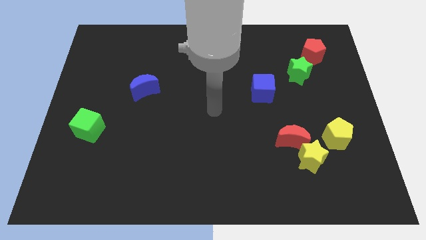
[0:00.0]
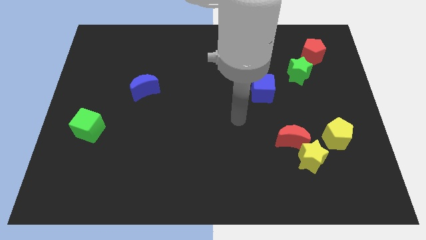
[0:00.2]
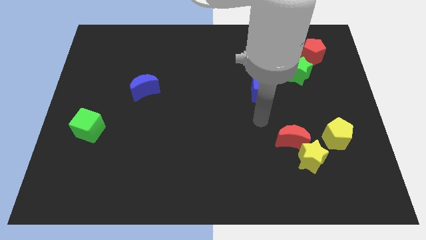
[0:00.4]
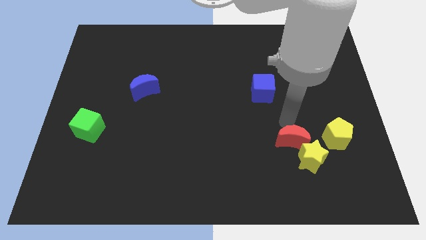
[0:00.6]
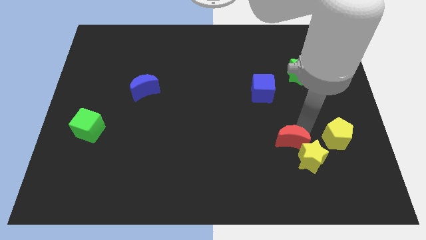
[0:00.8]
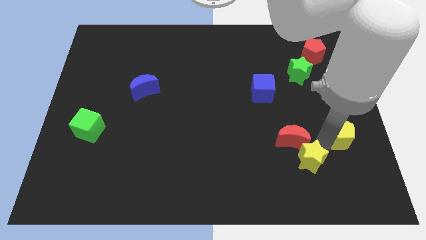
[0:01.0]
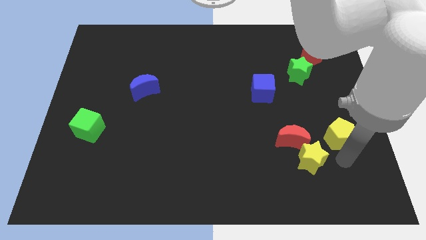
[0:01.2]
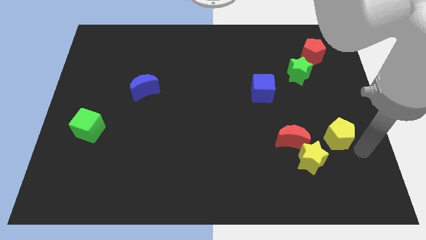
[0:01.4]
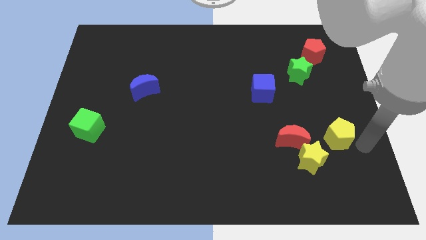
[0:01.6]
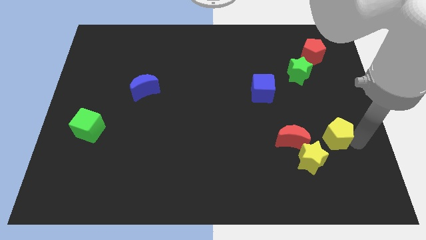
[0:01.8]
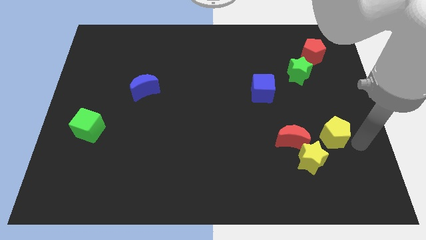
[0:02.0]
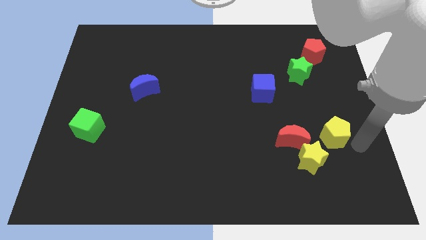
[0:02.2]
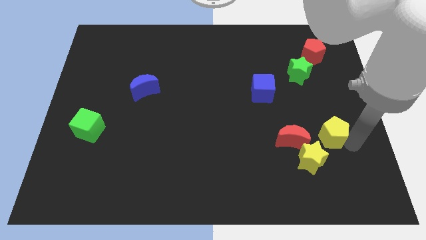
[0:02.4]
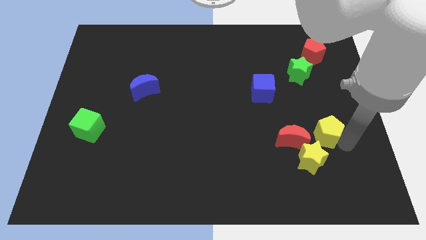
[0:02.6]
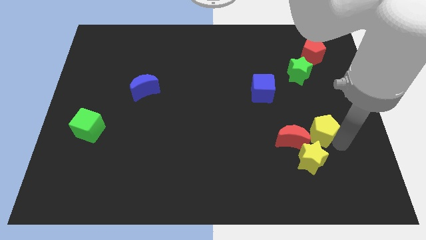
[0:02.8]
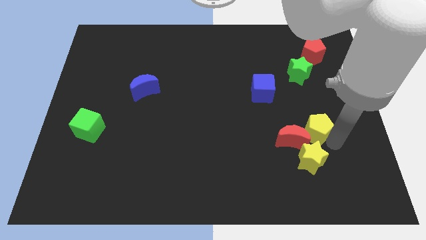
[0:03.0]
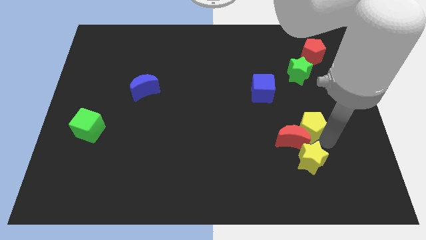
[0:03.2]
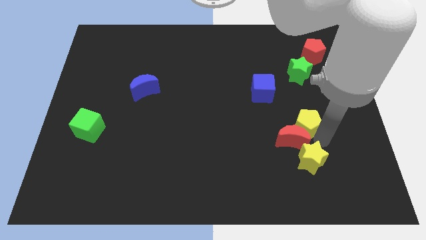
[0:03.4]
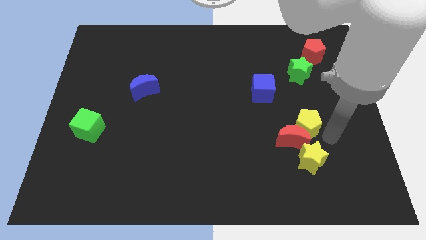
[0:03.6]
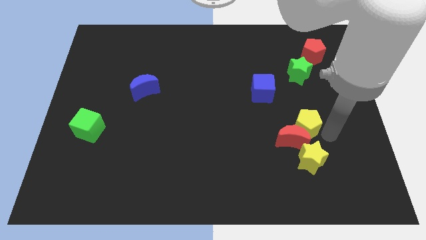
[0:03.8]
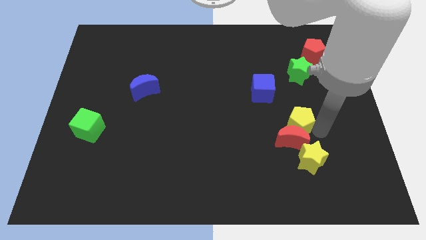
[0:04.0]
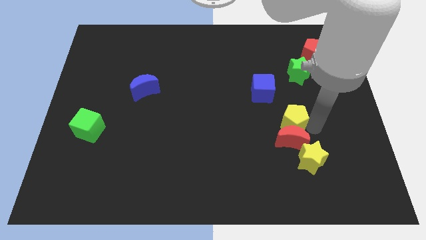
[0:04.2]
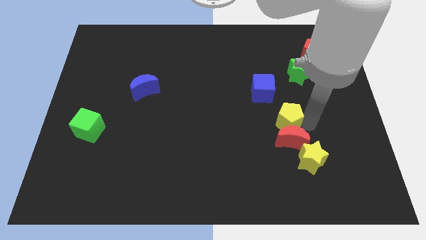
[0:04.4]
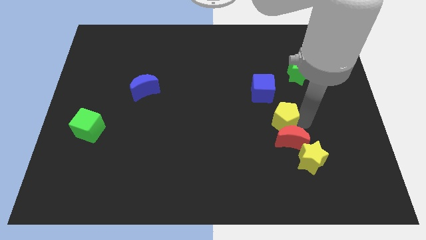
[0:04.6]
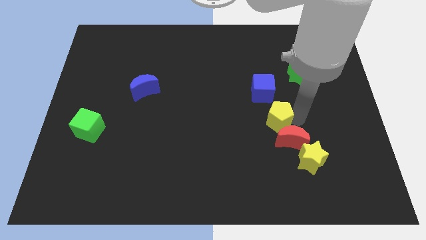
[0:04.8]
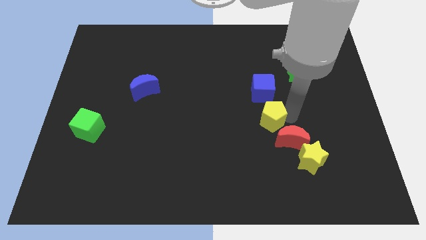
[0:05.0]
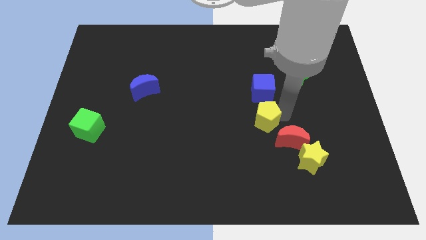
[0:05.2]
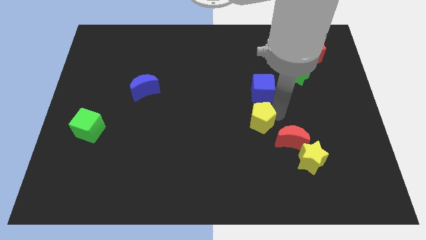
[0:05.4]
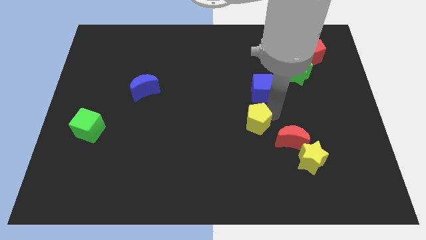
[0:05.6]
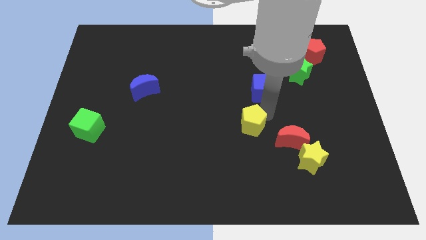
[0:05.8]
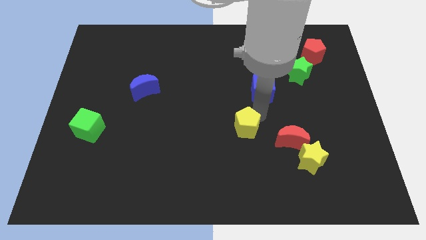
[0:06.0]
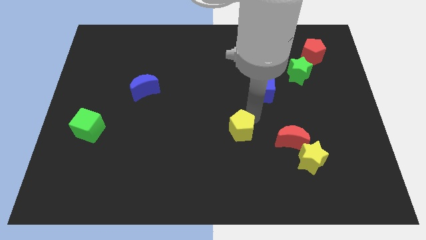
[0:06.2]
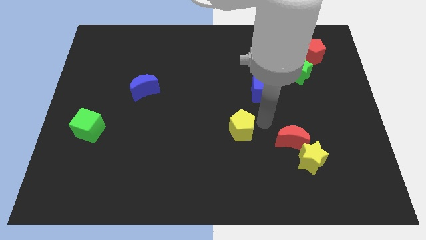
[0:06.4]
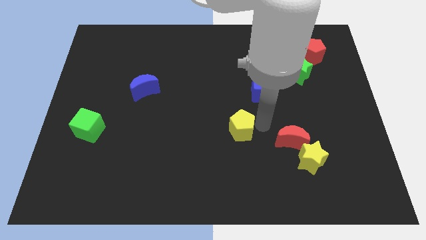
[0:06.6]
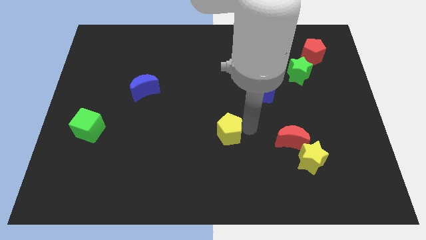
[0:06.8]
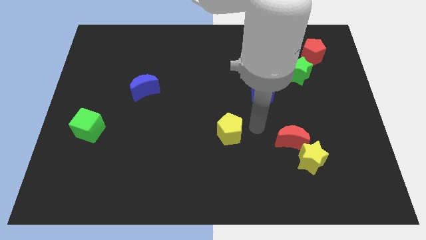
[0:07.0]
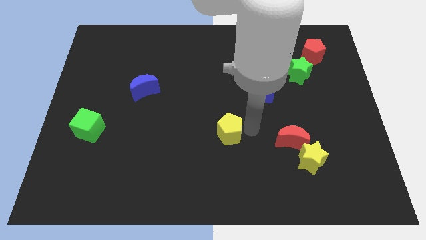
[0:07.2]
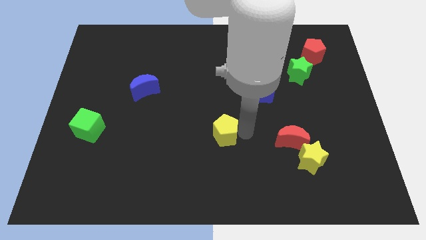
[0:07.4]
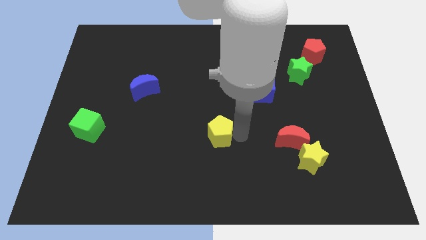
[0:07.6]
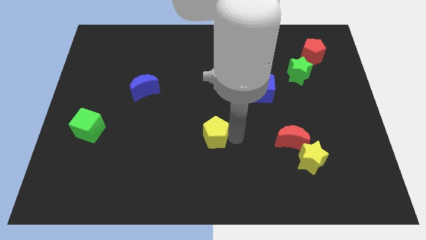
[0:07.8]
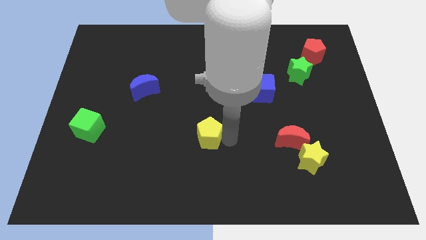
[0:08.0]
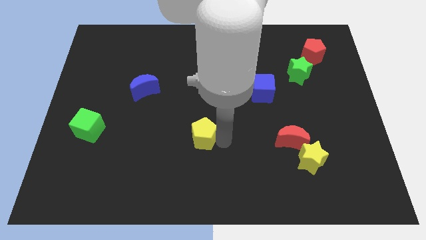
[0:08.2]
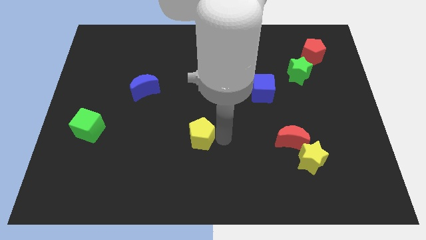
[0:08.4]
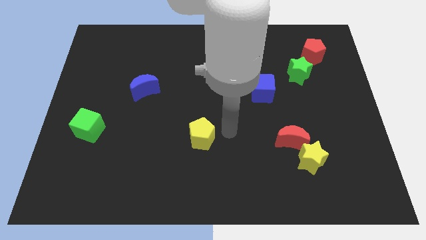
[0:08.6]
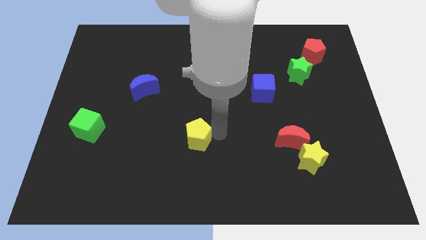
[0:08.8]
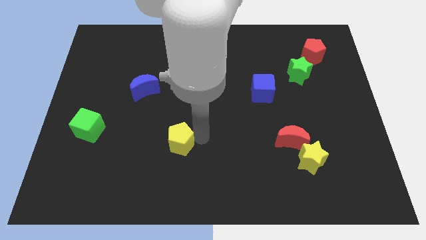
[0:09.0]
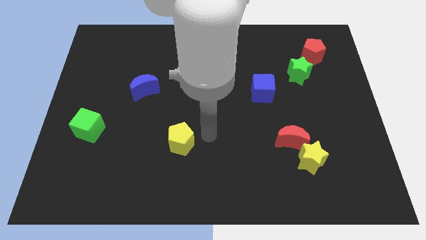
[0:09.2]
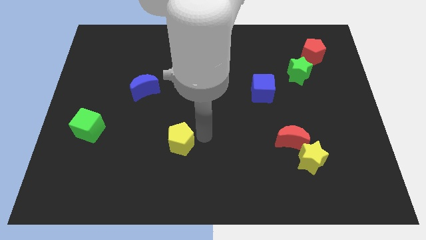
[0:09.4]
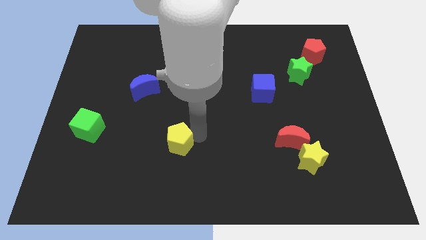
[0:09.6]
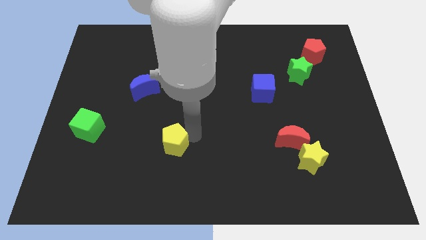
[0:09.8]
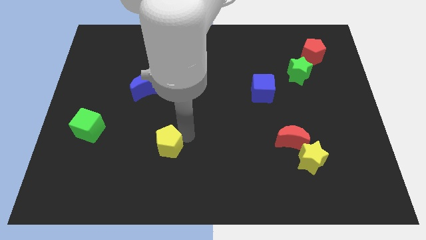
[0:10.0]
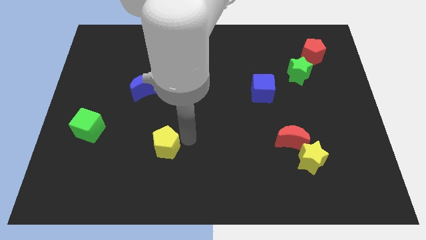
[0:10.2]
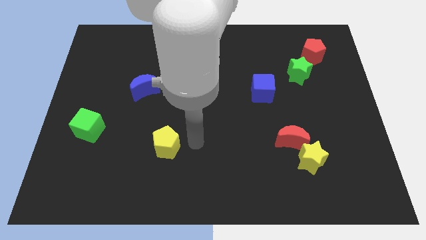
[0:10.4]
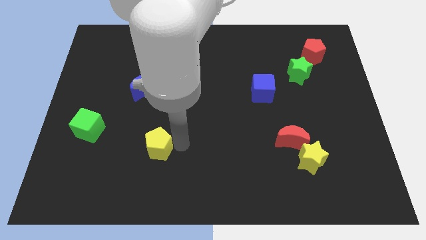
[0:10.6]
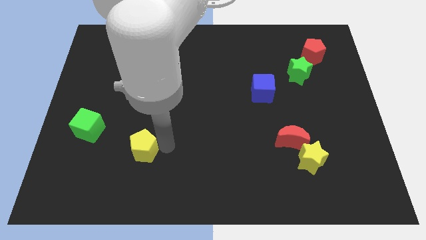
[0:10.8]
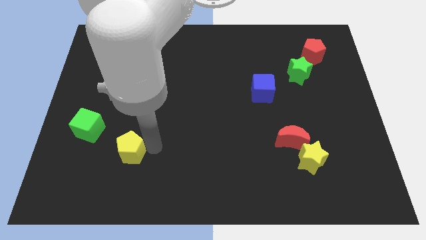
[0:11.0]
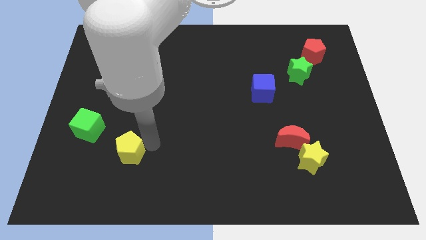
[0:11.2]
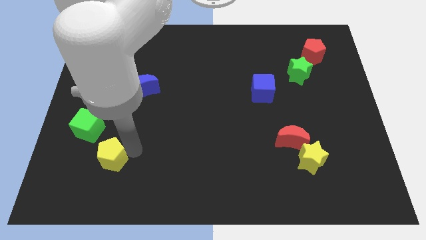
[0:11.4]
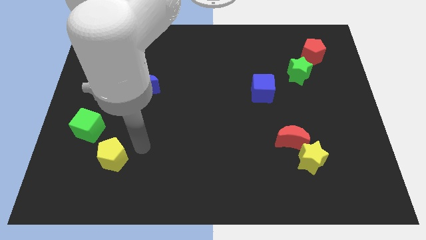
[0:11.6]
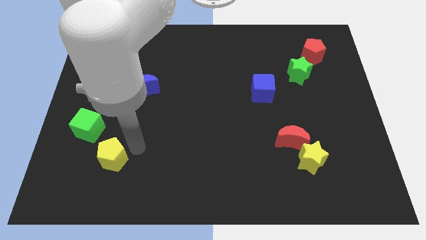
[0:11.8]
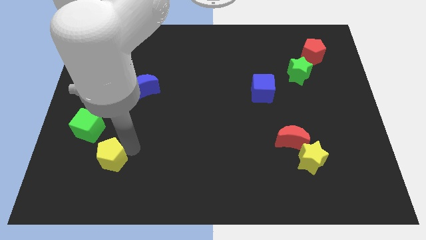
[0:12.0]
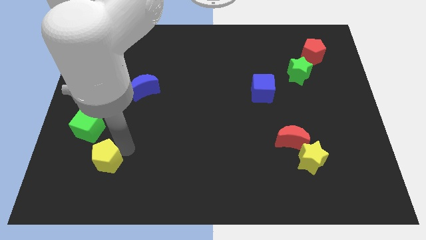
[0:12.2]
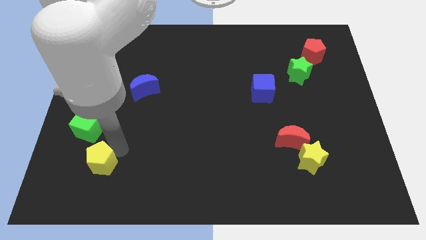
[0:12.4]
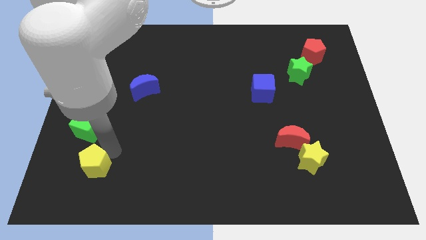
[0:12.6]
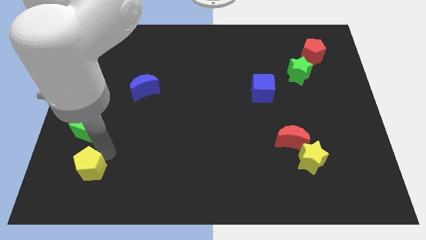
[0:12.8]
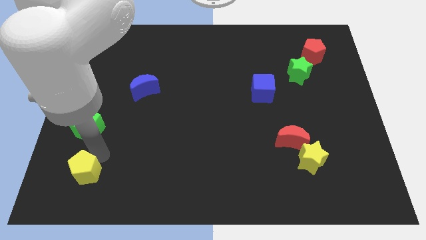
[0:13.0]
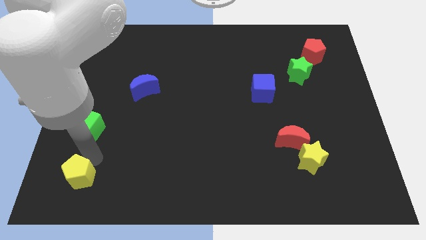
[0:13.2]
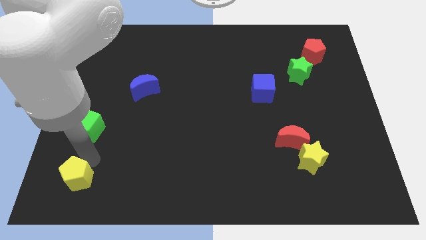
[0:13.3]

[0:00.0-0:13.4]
push the yellow pentagon to the bottom left
